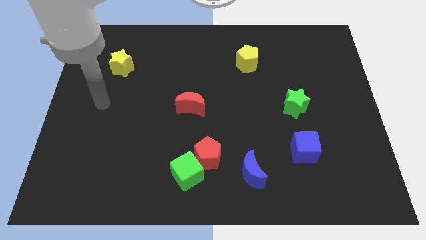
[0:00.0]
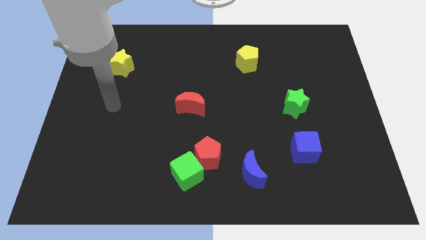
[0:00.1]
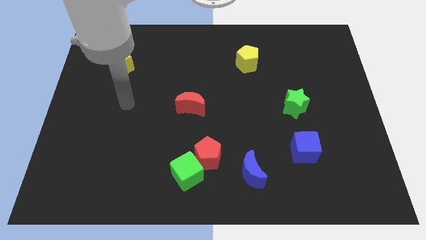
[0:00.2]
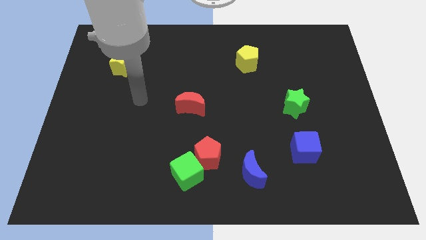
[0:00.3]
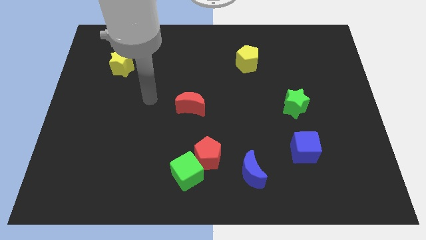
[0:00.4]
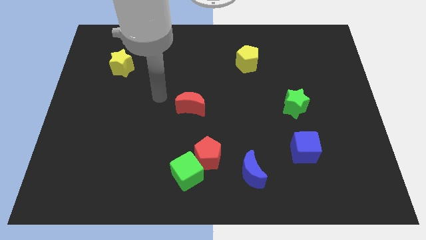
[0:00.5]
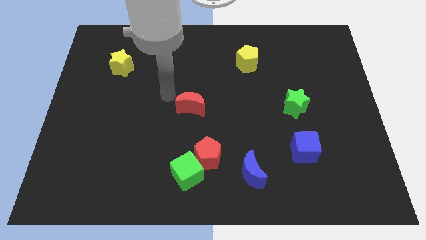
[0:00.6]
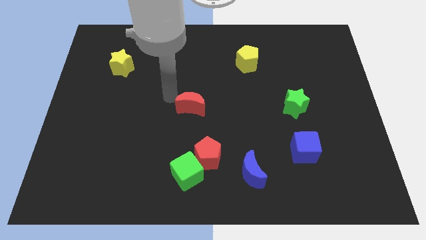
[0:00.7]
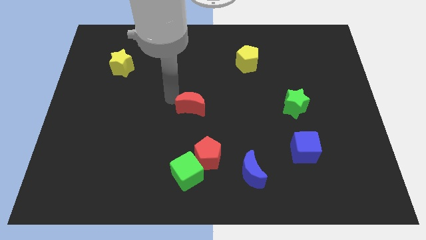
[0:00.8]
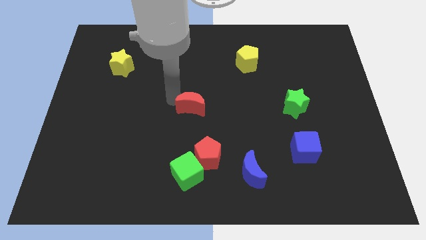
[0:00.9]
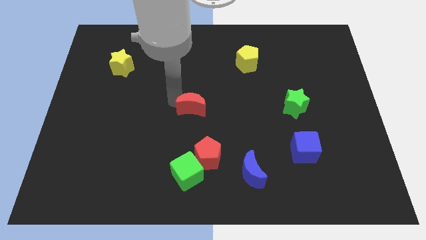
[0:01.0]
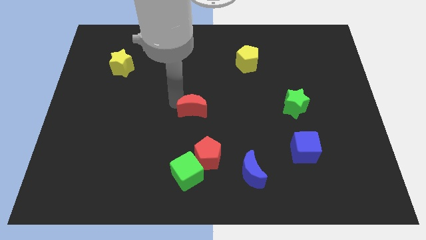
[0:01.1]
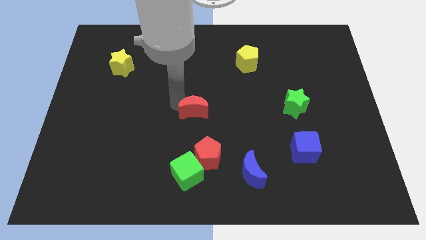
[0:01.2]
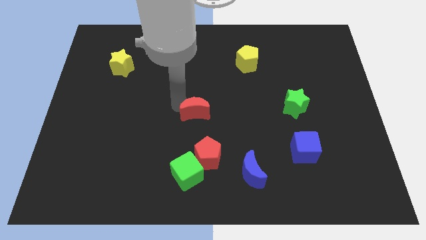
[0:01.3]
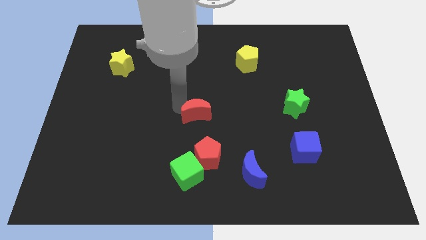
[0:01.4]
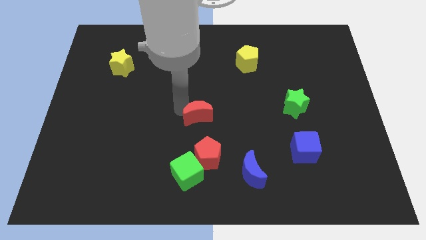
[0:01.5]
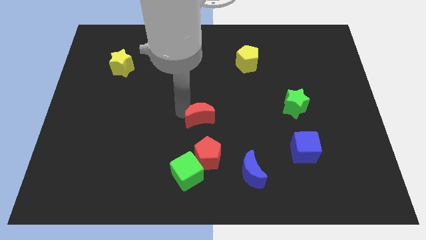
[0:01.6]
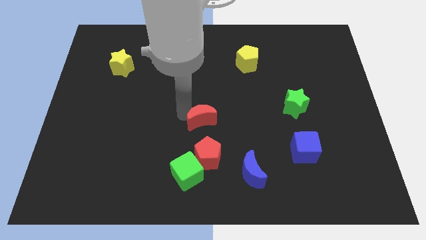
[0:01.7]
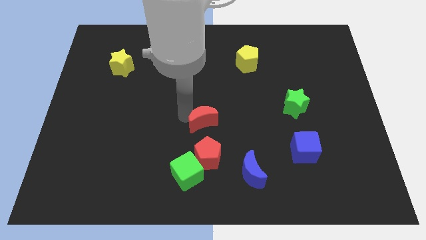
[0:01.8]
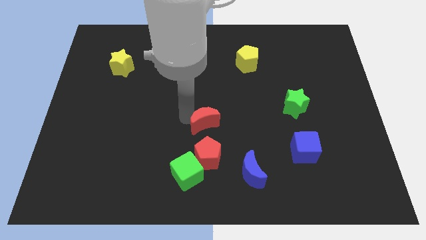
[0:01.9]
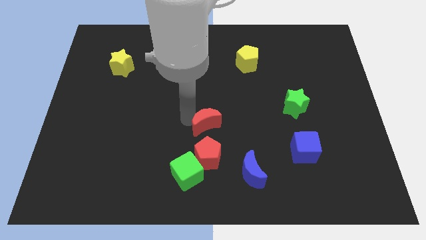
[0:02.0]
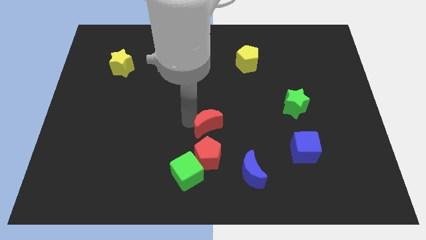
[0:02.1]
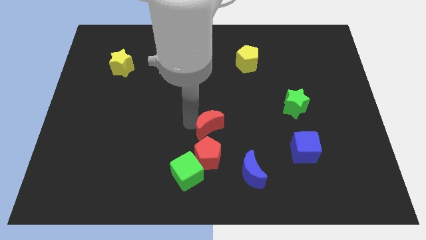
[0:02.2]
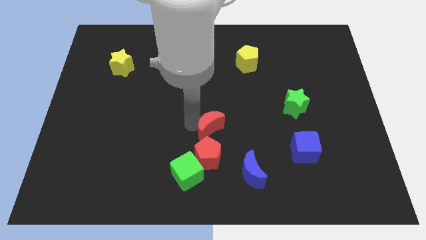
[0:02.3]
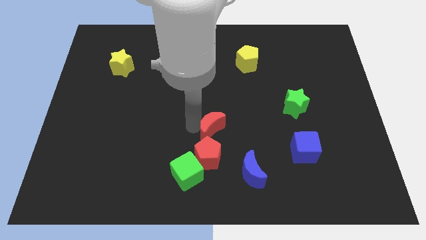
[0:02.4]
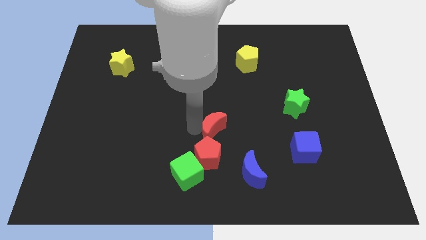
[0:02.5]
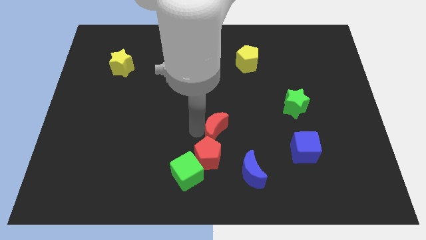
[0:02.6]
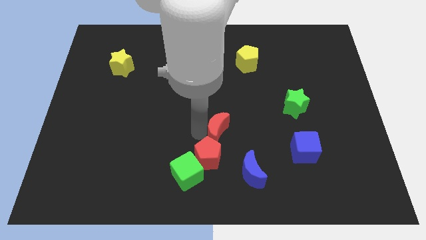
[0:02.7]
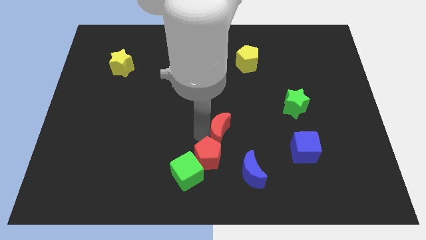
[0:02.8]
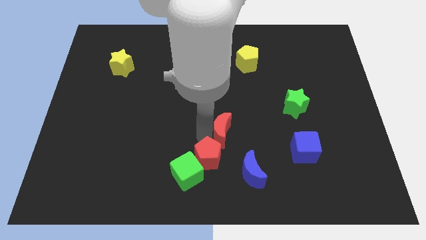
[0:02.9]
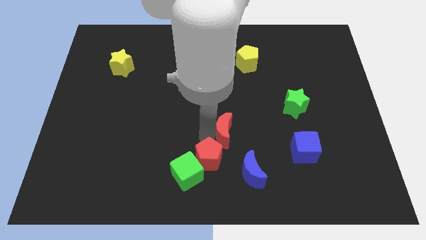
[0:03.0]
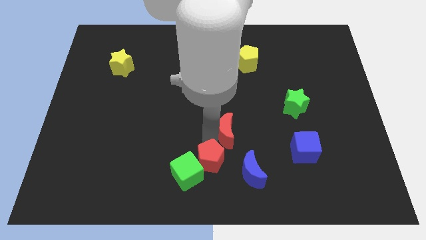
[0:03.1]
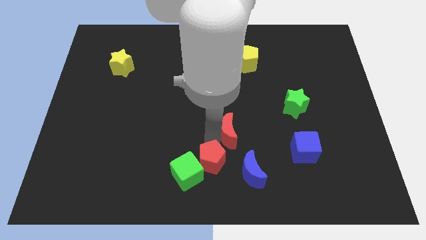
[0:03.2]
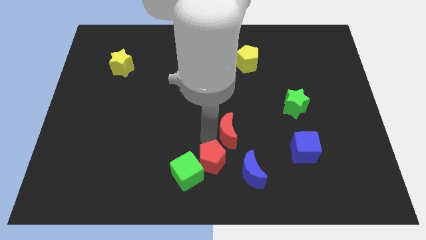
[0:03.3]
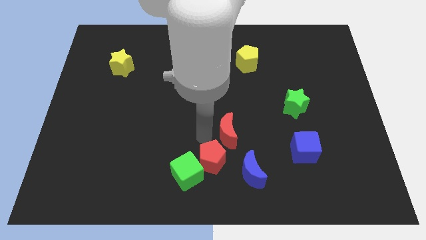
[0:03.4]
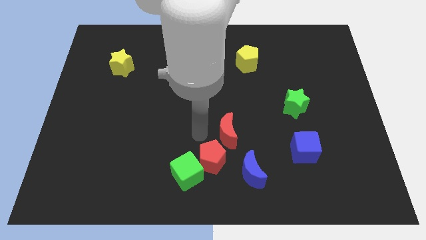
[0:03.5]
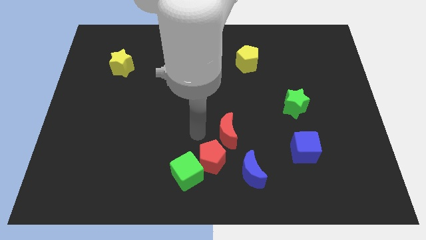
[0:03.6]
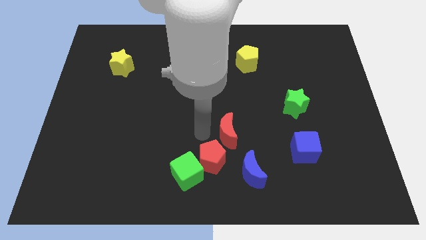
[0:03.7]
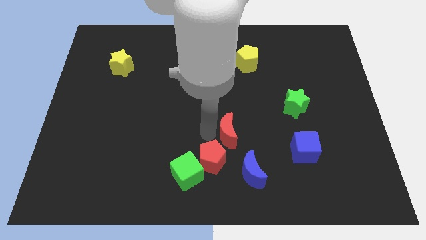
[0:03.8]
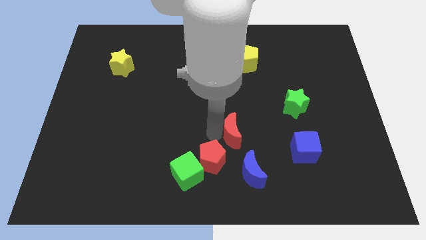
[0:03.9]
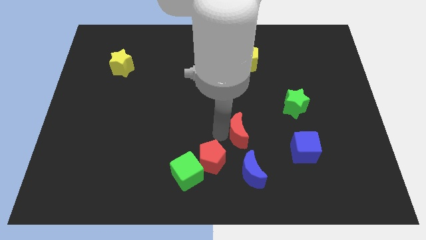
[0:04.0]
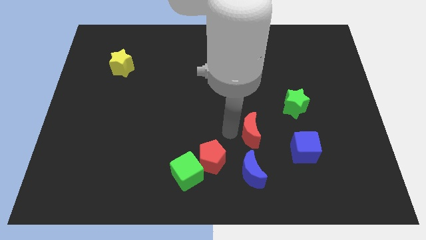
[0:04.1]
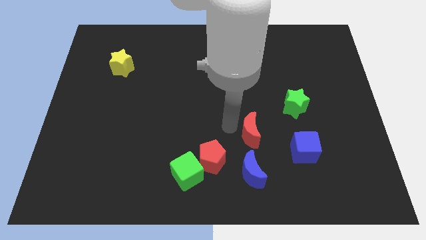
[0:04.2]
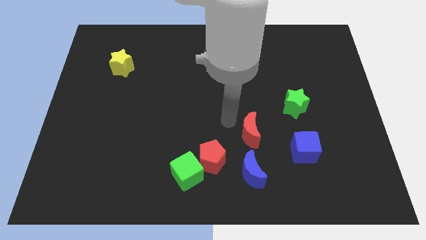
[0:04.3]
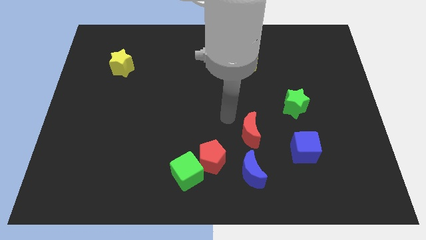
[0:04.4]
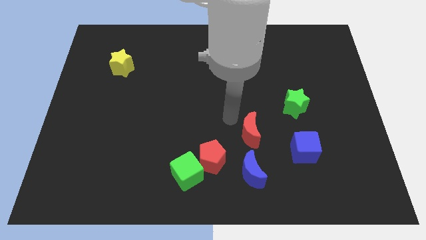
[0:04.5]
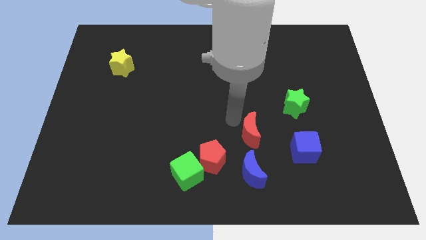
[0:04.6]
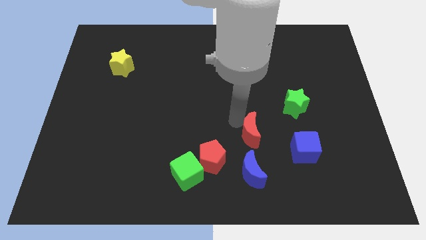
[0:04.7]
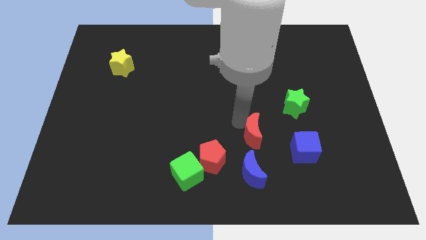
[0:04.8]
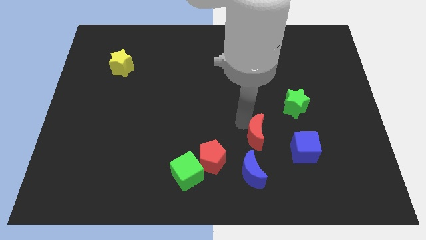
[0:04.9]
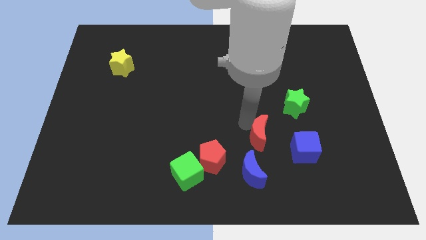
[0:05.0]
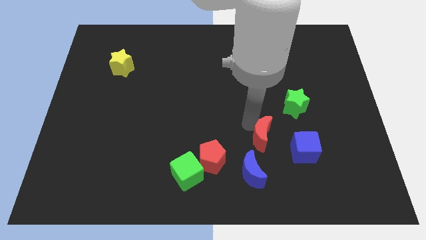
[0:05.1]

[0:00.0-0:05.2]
push the red moon to the top right side of the blue moon

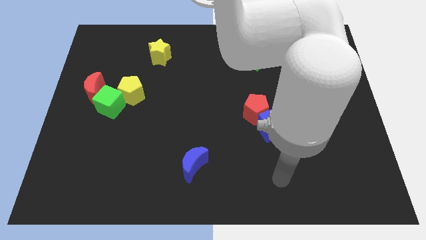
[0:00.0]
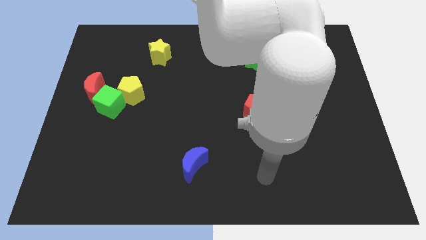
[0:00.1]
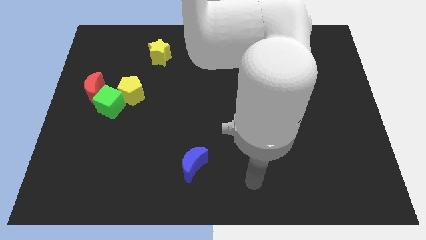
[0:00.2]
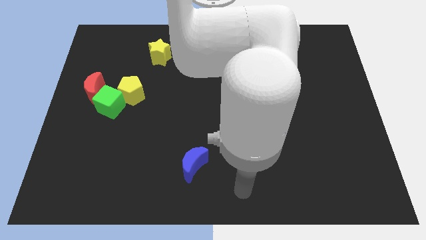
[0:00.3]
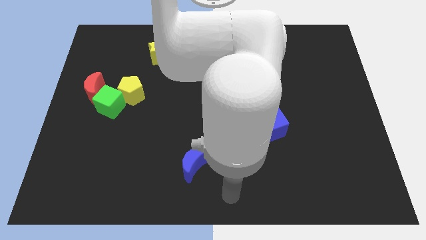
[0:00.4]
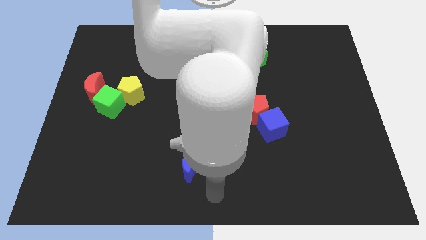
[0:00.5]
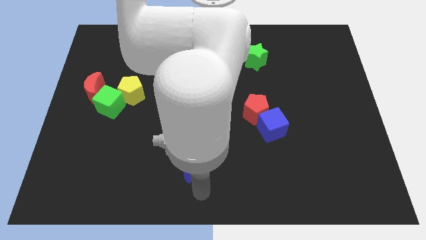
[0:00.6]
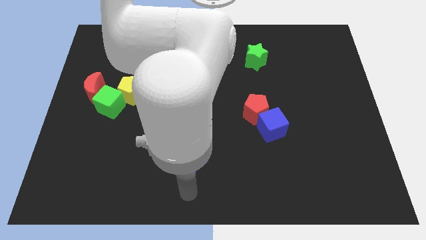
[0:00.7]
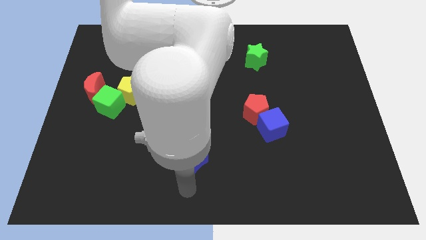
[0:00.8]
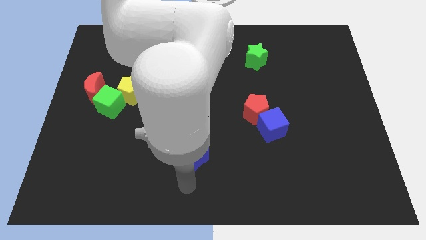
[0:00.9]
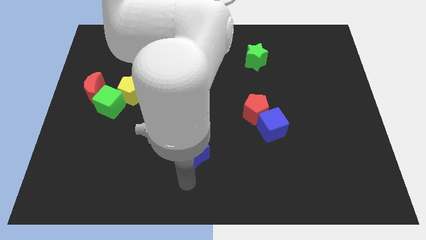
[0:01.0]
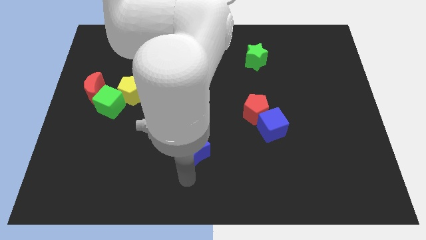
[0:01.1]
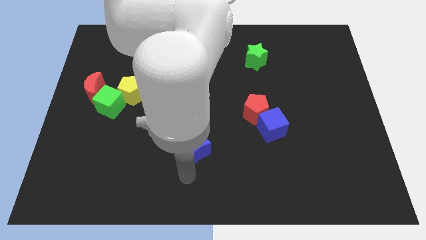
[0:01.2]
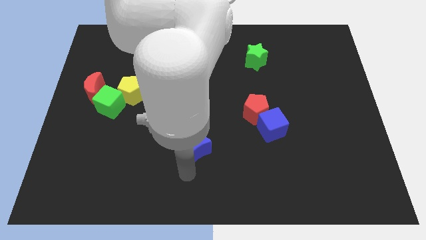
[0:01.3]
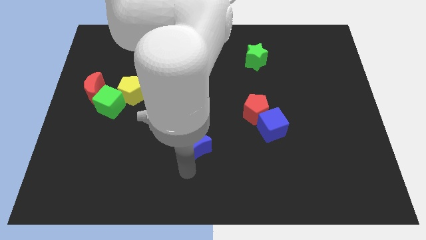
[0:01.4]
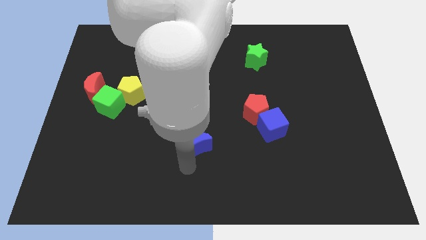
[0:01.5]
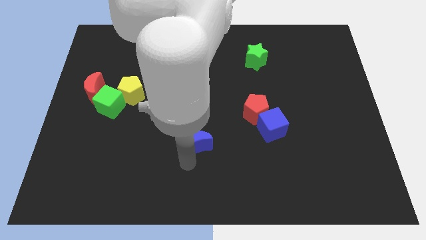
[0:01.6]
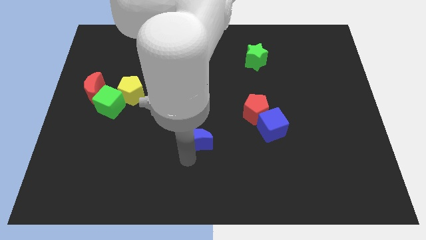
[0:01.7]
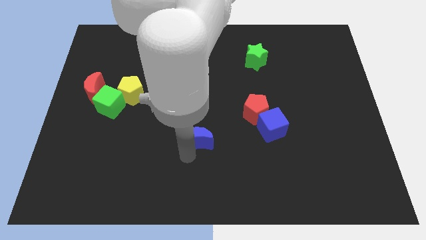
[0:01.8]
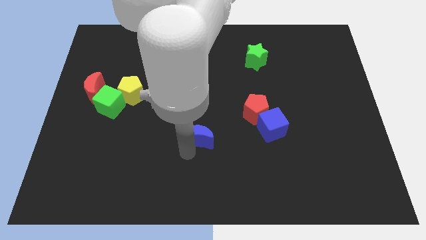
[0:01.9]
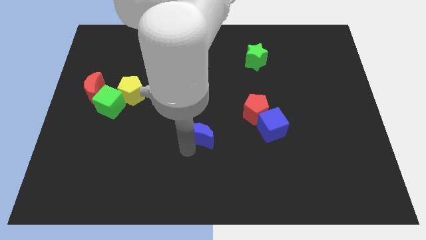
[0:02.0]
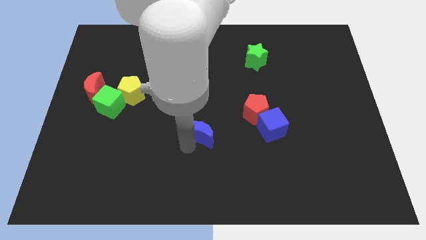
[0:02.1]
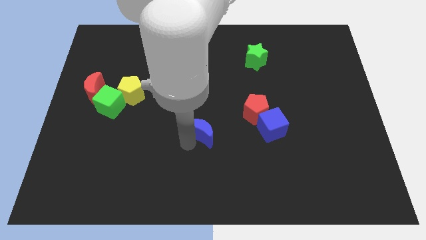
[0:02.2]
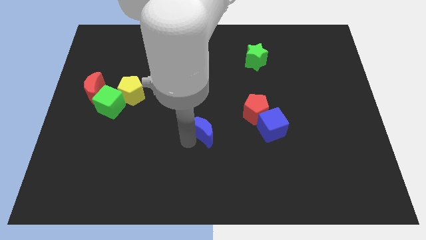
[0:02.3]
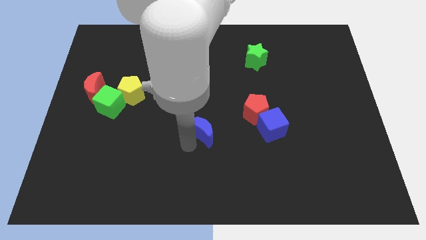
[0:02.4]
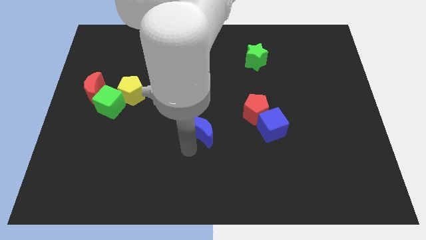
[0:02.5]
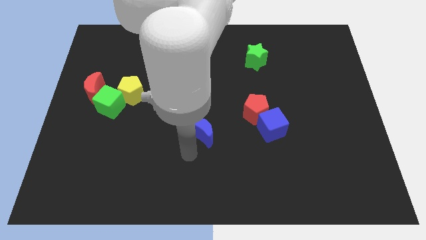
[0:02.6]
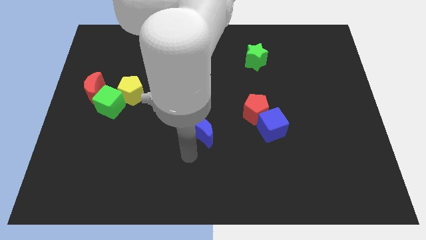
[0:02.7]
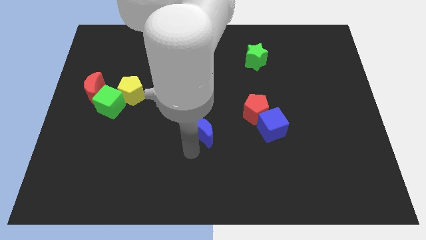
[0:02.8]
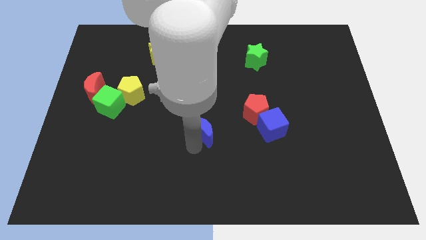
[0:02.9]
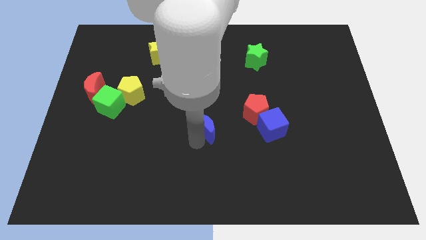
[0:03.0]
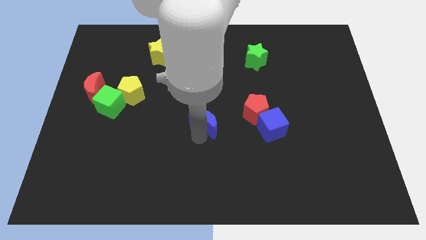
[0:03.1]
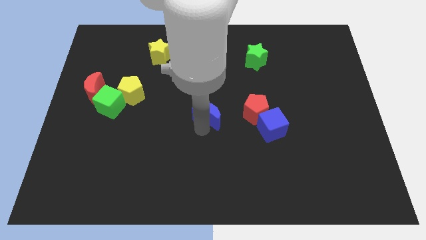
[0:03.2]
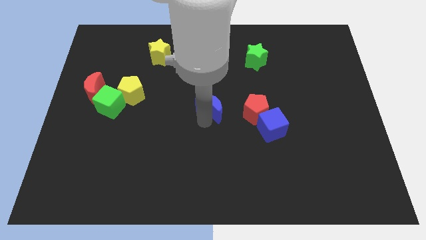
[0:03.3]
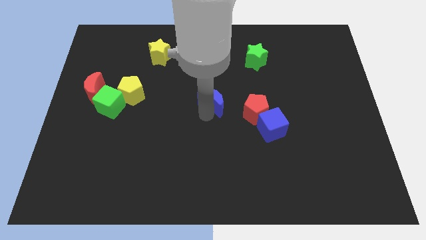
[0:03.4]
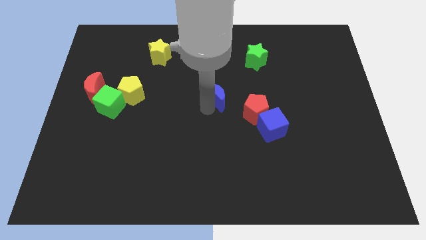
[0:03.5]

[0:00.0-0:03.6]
slide the blue moon diagonally up and to the left of the red pentagon
